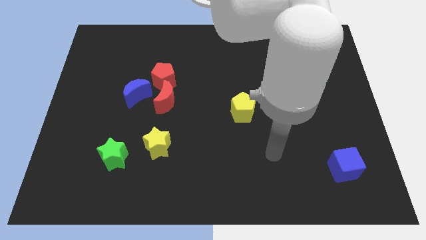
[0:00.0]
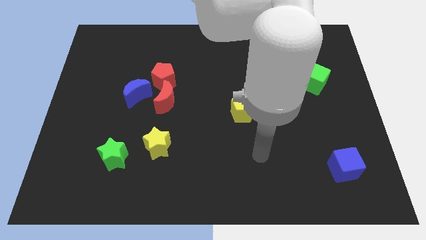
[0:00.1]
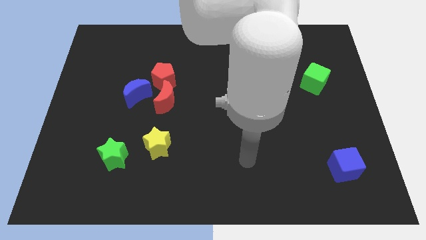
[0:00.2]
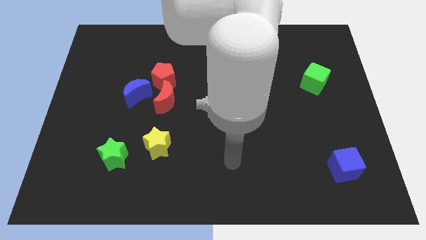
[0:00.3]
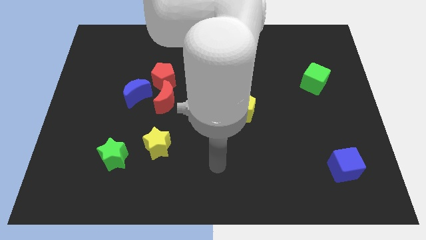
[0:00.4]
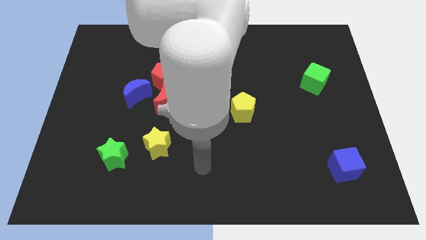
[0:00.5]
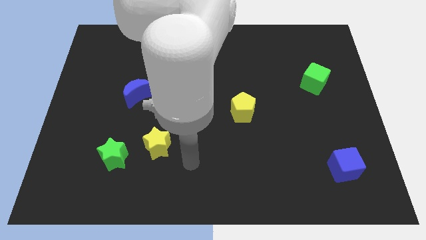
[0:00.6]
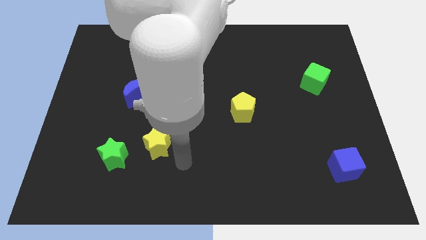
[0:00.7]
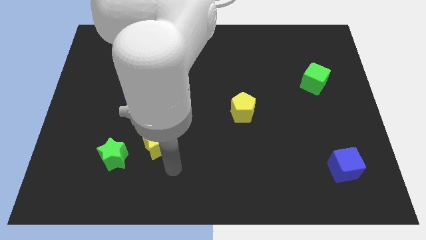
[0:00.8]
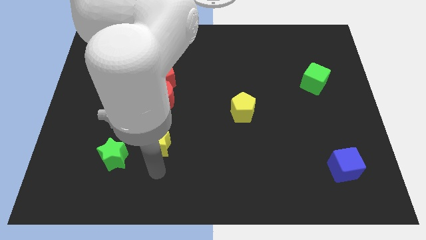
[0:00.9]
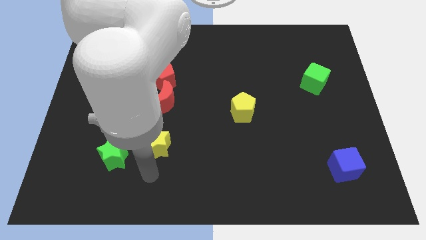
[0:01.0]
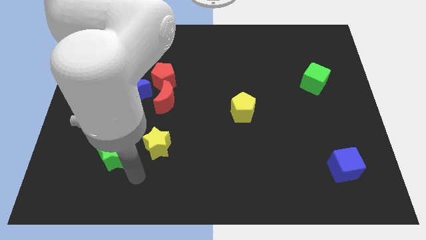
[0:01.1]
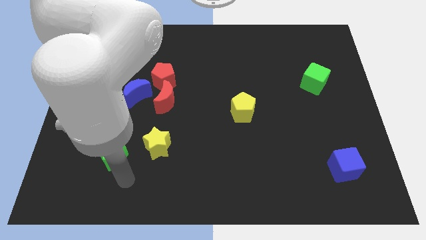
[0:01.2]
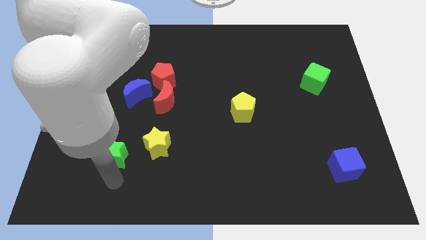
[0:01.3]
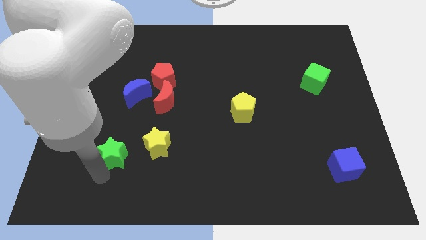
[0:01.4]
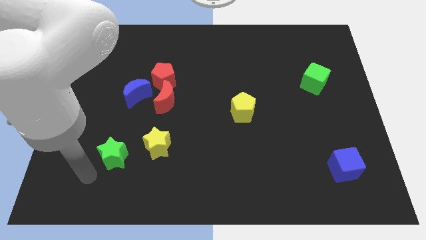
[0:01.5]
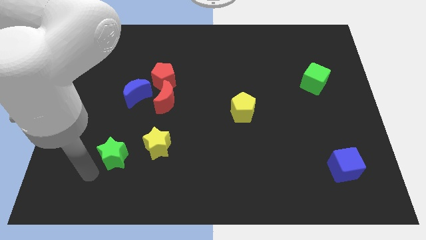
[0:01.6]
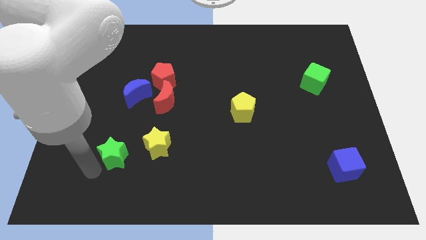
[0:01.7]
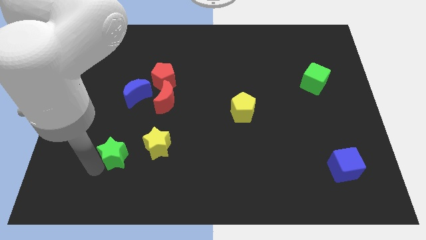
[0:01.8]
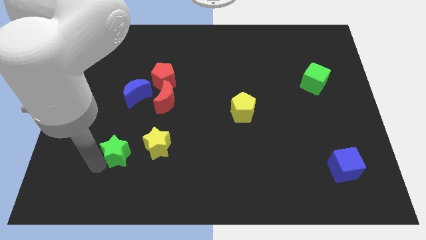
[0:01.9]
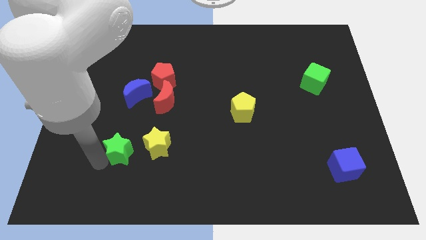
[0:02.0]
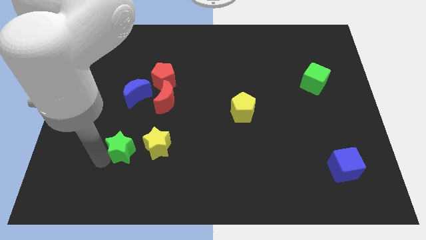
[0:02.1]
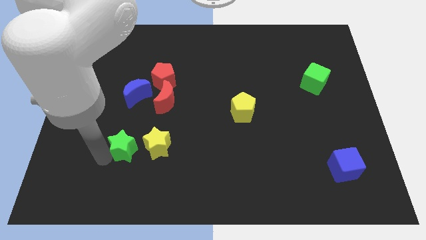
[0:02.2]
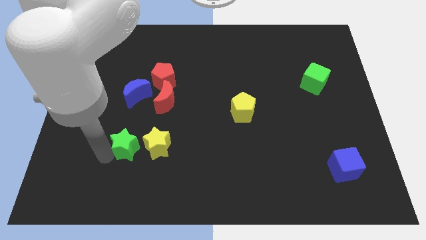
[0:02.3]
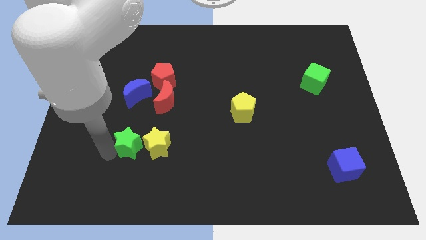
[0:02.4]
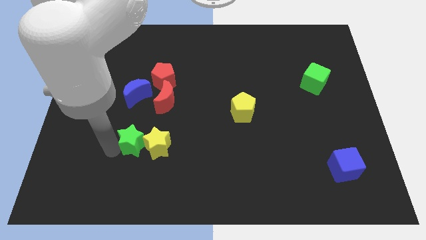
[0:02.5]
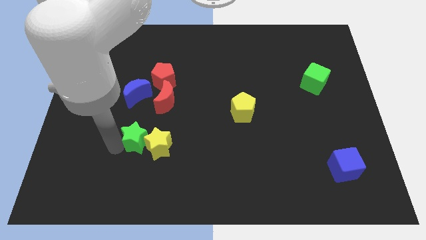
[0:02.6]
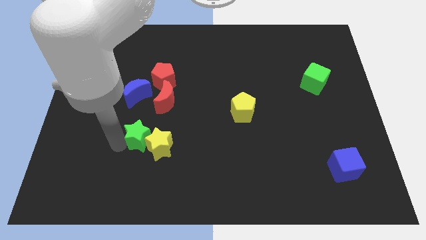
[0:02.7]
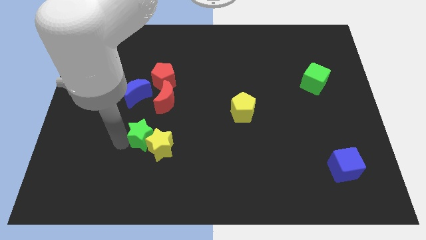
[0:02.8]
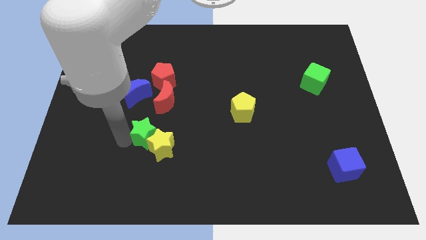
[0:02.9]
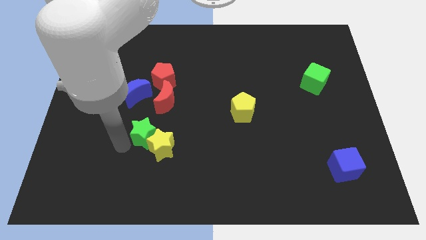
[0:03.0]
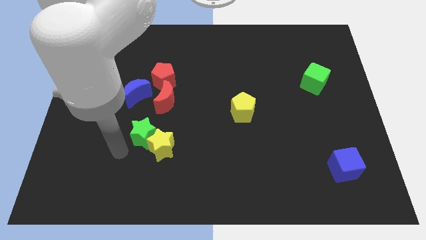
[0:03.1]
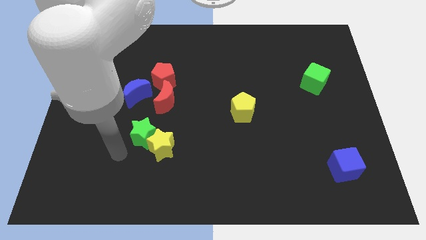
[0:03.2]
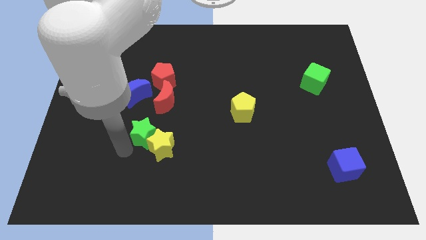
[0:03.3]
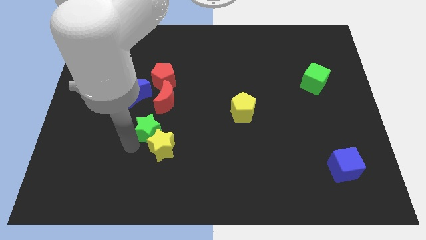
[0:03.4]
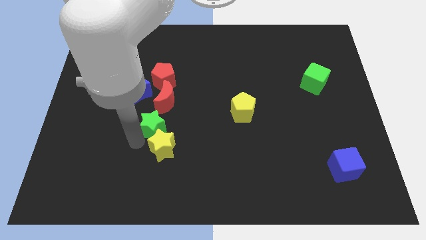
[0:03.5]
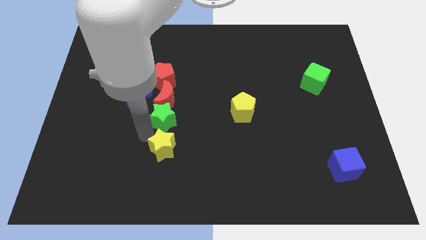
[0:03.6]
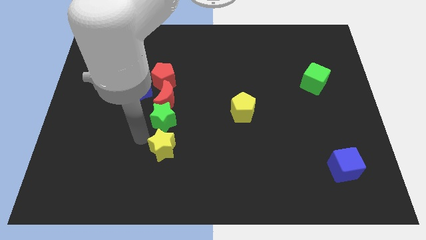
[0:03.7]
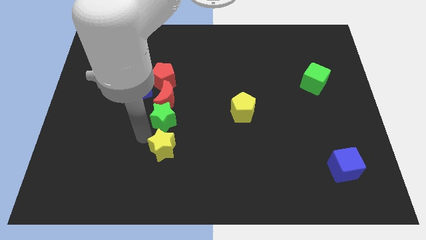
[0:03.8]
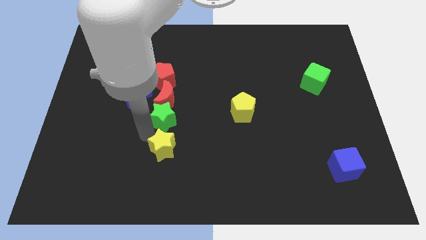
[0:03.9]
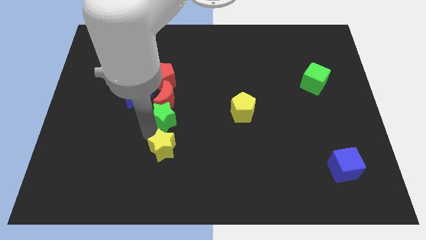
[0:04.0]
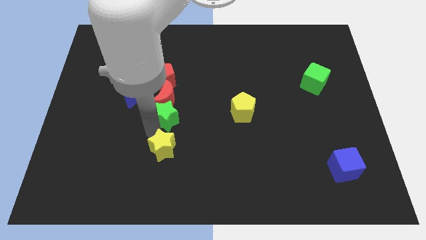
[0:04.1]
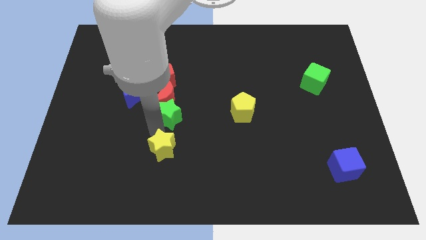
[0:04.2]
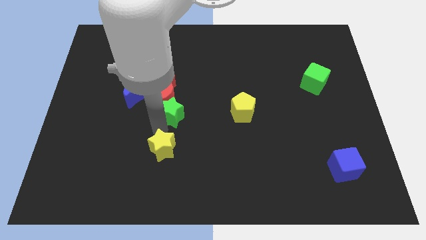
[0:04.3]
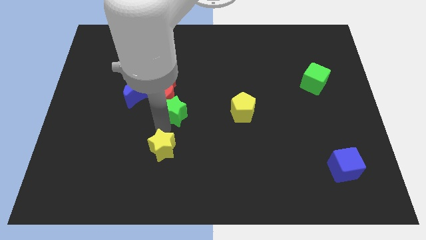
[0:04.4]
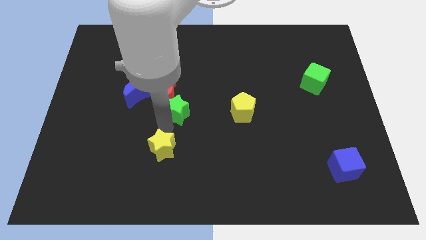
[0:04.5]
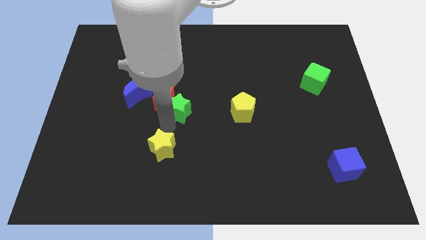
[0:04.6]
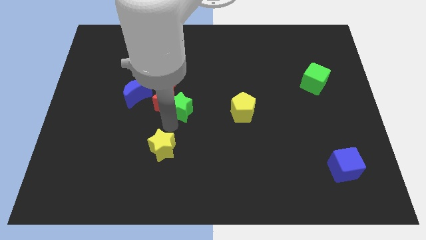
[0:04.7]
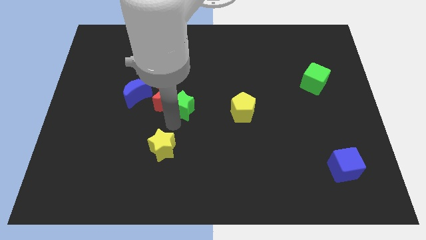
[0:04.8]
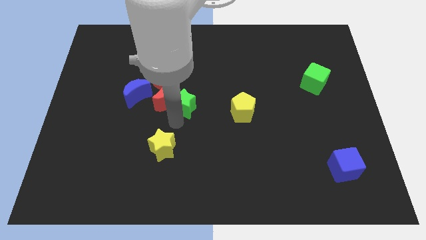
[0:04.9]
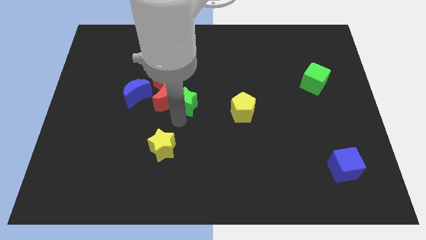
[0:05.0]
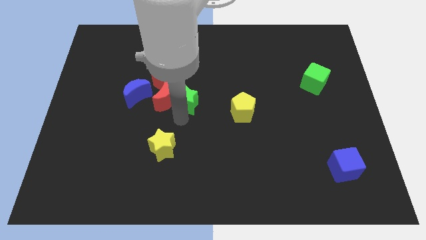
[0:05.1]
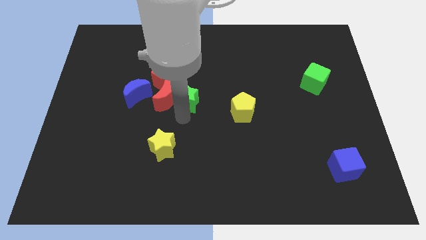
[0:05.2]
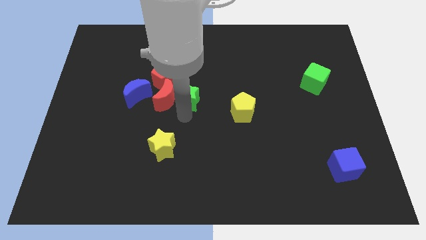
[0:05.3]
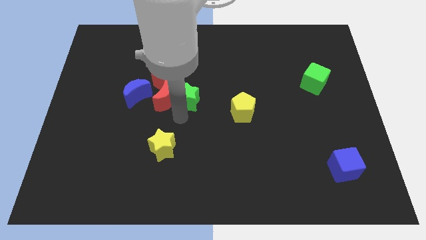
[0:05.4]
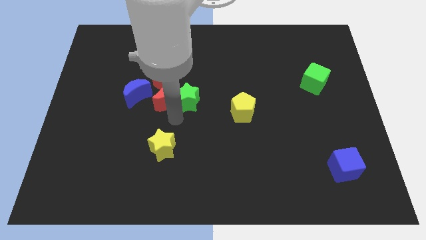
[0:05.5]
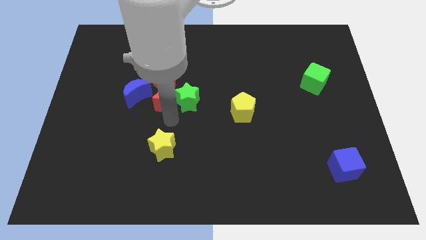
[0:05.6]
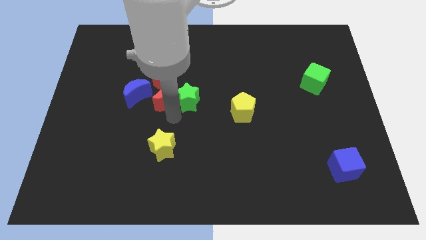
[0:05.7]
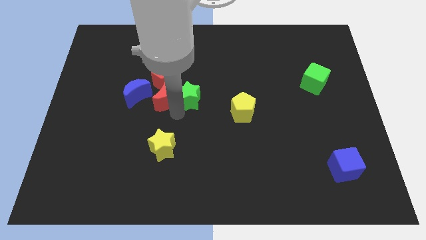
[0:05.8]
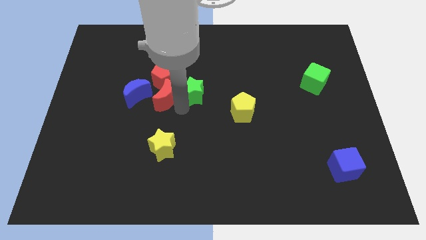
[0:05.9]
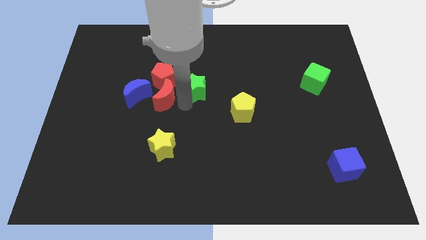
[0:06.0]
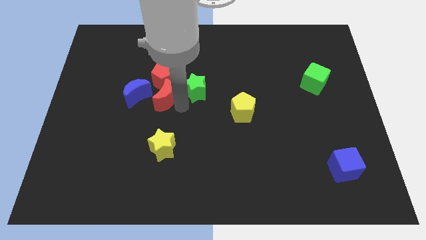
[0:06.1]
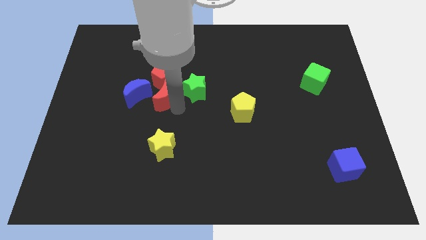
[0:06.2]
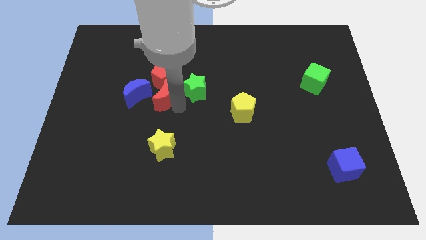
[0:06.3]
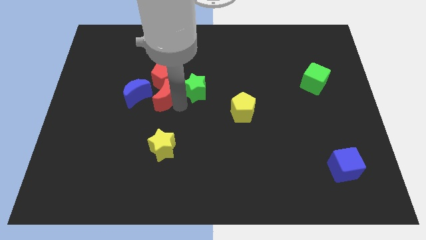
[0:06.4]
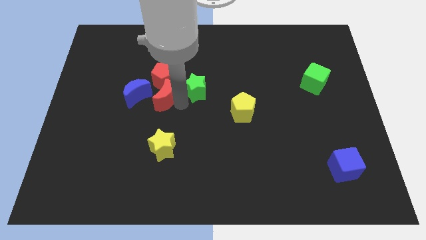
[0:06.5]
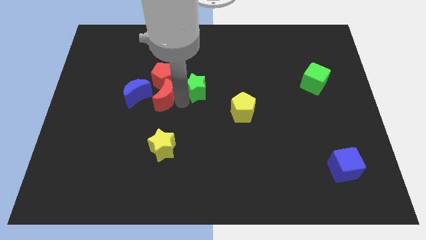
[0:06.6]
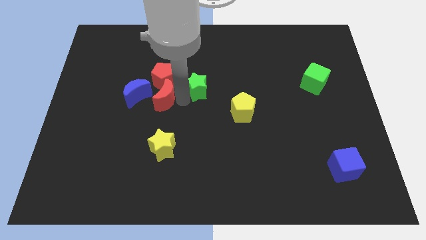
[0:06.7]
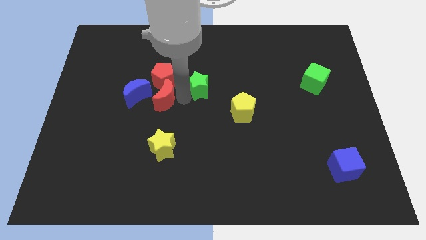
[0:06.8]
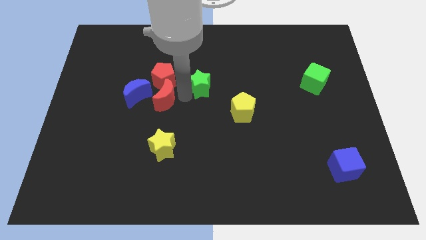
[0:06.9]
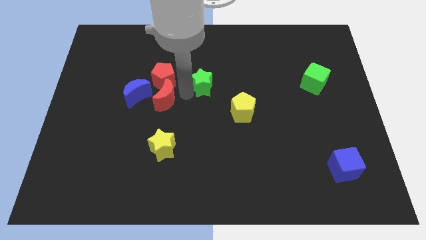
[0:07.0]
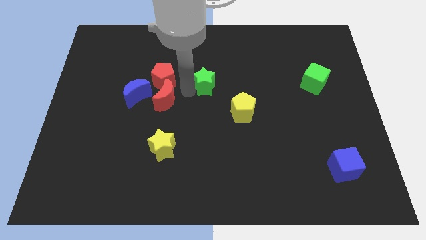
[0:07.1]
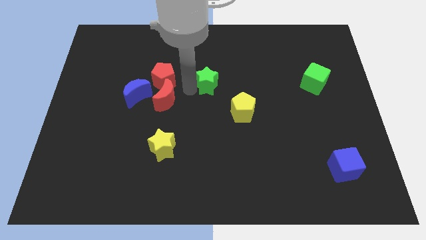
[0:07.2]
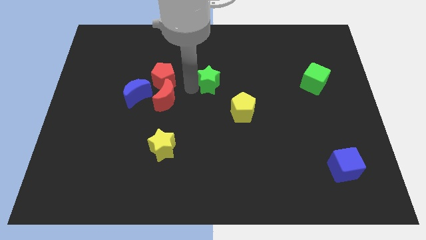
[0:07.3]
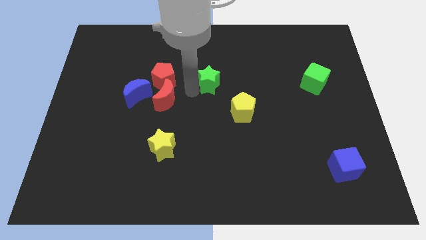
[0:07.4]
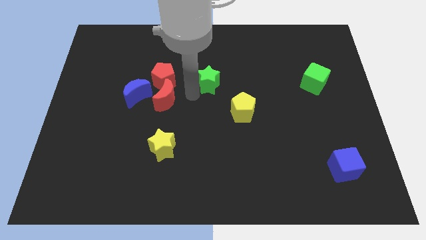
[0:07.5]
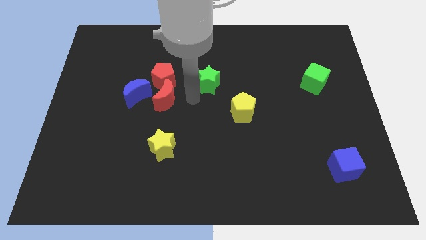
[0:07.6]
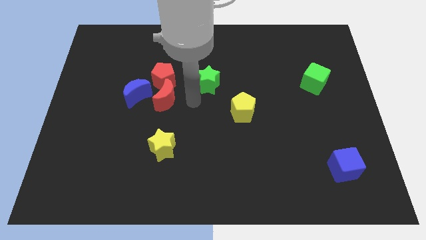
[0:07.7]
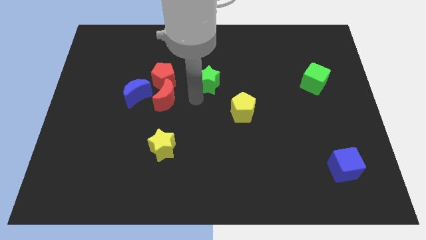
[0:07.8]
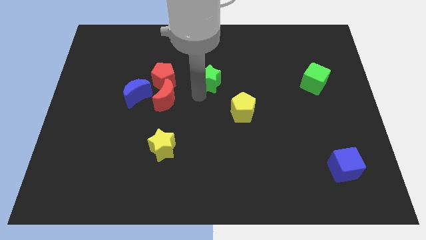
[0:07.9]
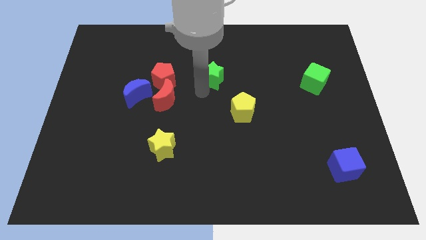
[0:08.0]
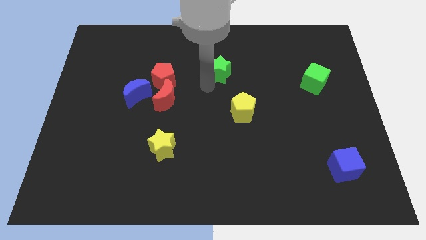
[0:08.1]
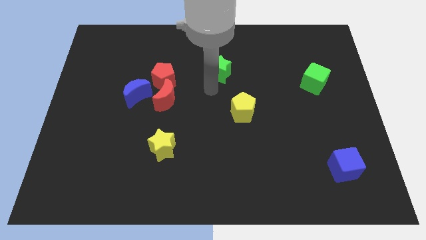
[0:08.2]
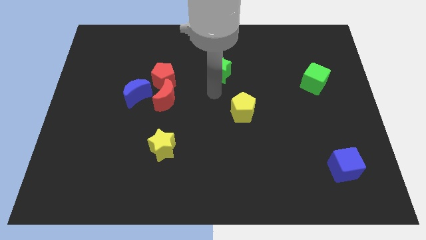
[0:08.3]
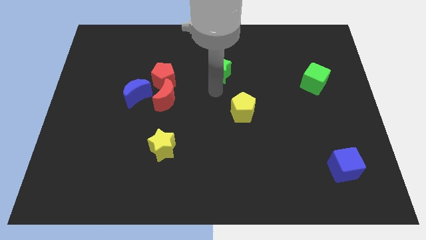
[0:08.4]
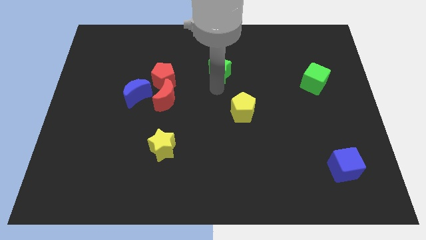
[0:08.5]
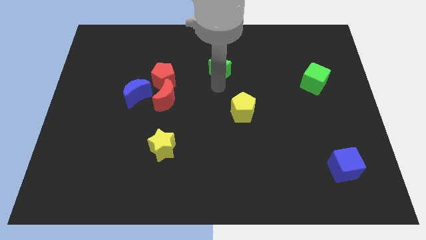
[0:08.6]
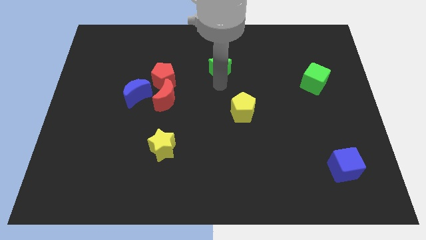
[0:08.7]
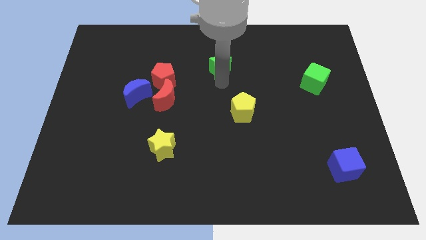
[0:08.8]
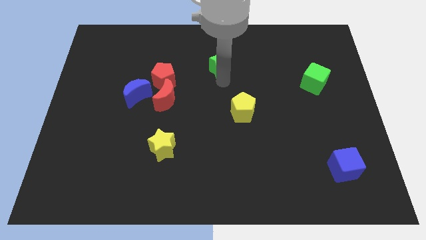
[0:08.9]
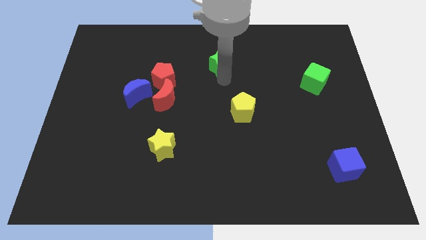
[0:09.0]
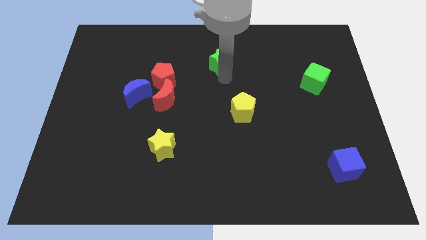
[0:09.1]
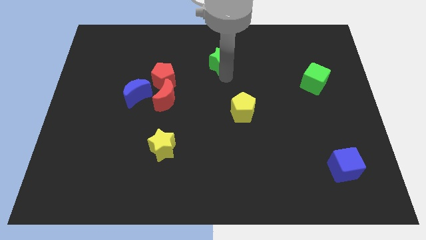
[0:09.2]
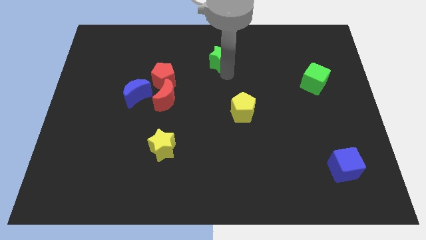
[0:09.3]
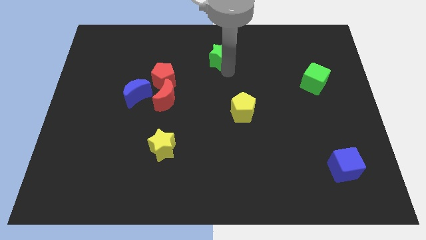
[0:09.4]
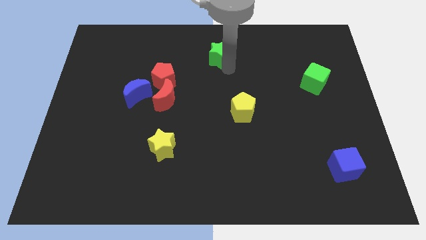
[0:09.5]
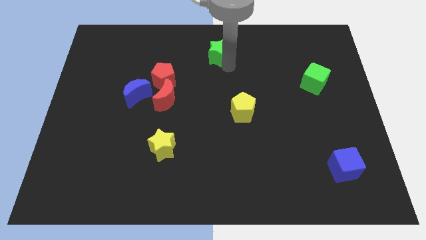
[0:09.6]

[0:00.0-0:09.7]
move the green star to the top side
